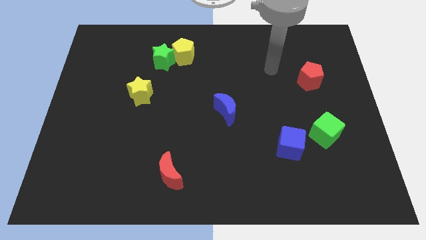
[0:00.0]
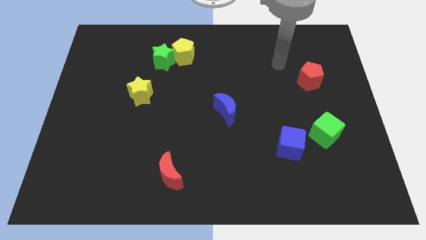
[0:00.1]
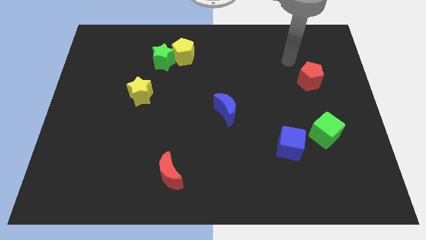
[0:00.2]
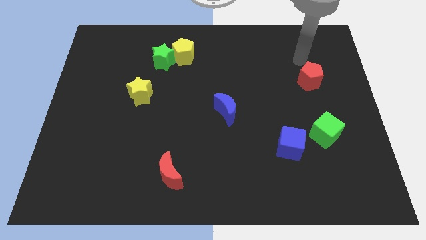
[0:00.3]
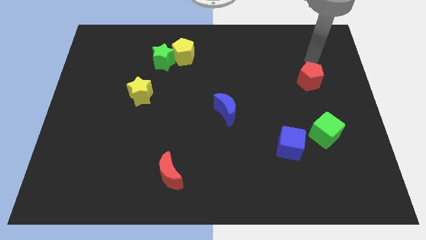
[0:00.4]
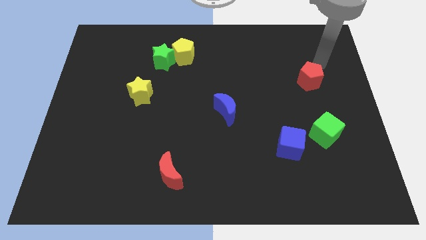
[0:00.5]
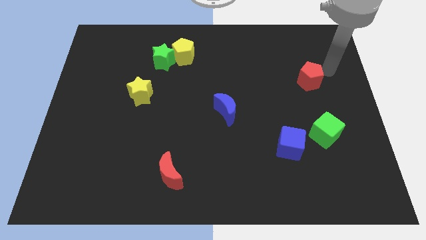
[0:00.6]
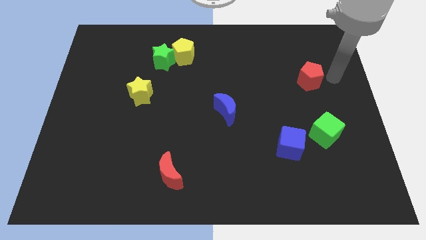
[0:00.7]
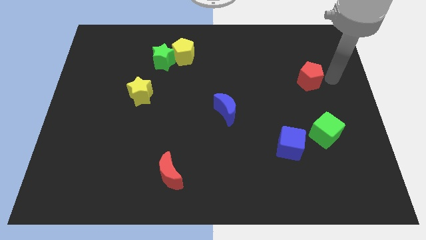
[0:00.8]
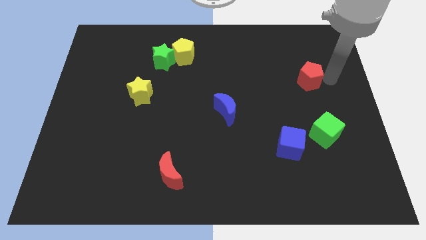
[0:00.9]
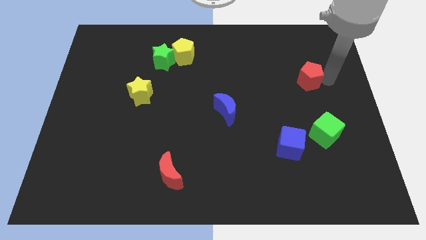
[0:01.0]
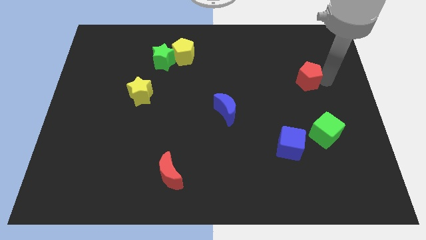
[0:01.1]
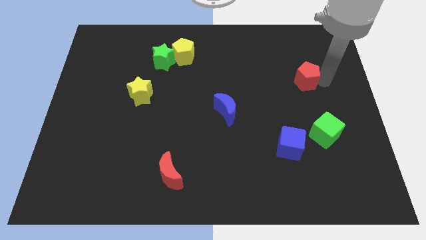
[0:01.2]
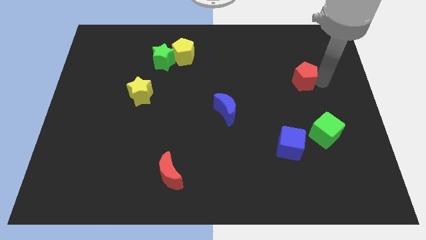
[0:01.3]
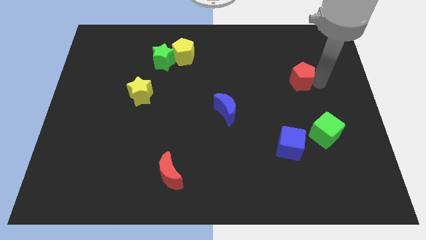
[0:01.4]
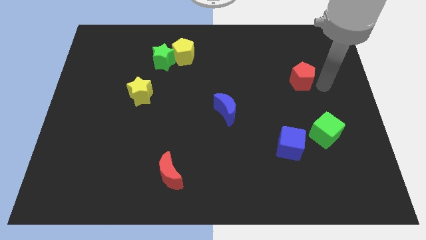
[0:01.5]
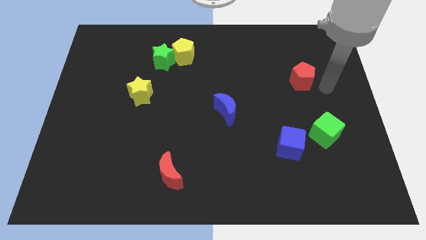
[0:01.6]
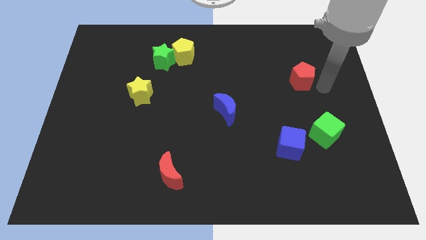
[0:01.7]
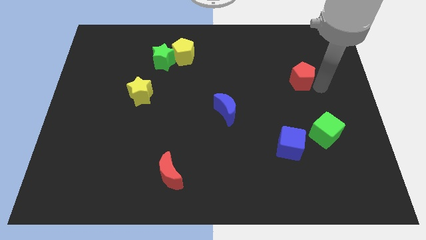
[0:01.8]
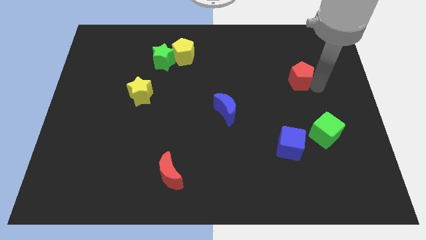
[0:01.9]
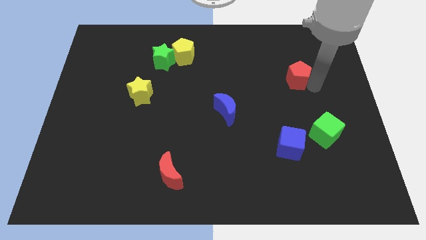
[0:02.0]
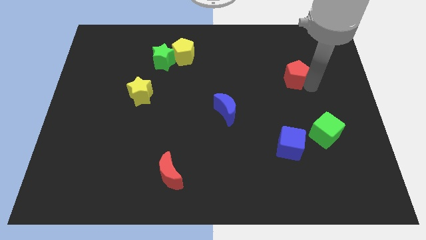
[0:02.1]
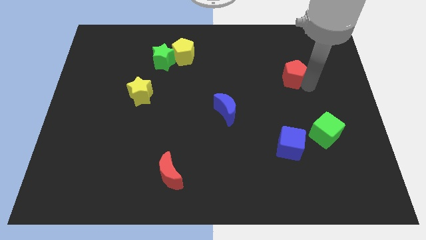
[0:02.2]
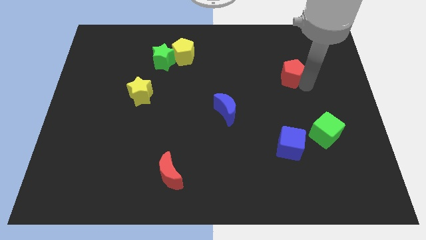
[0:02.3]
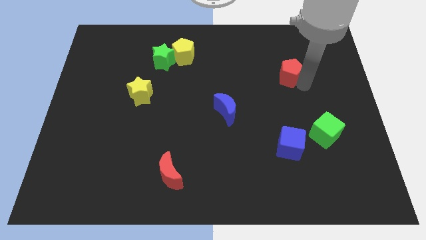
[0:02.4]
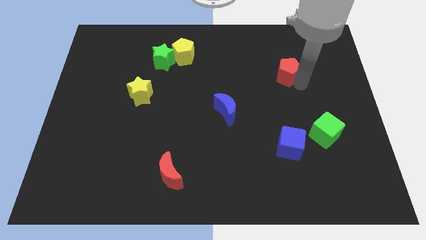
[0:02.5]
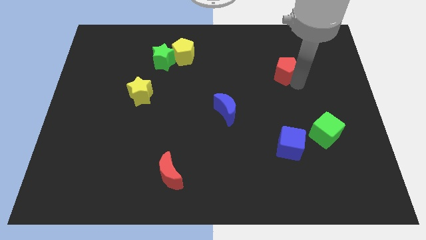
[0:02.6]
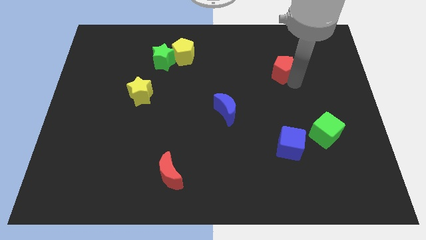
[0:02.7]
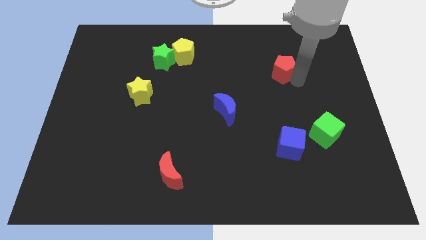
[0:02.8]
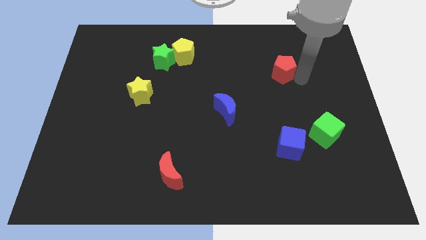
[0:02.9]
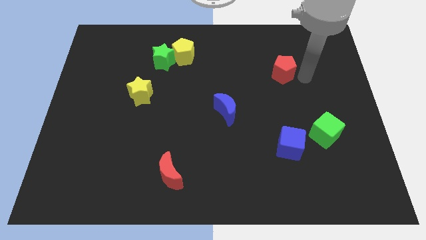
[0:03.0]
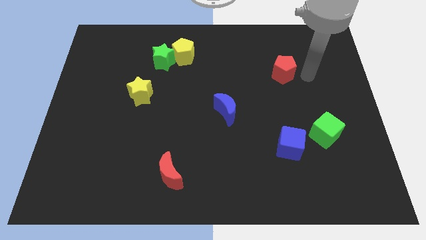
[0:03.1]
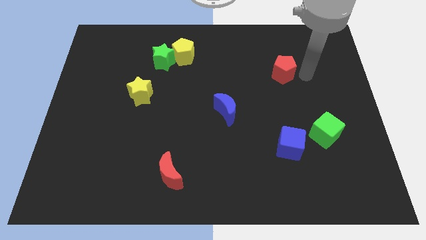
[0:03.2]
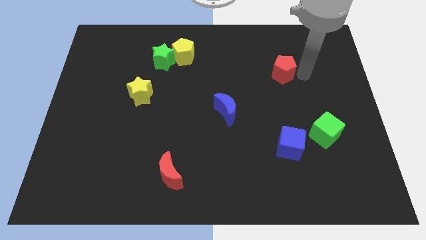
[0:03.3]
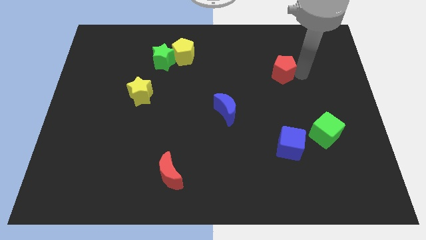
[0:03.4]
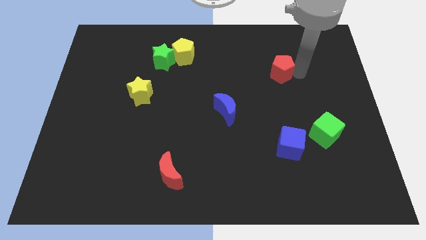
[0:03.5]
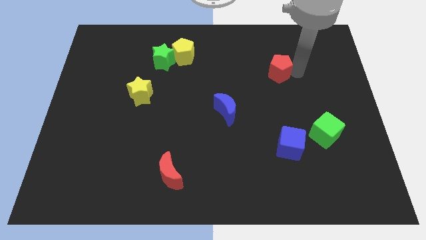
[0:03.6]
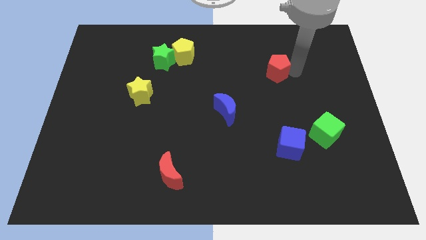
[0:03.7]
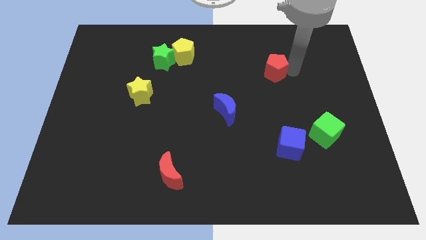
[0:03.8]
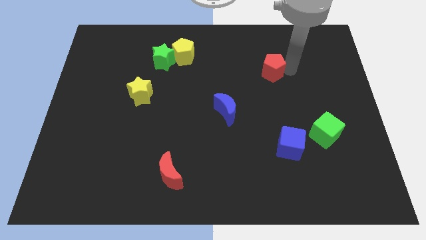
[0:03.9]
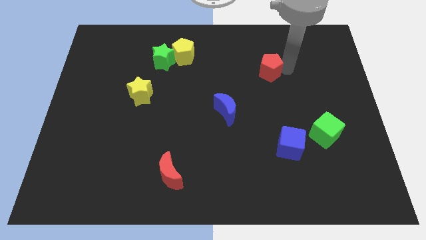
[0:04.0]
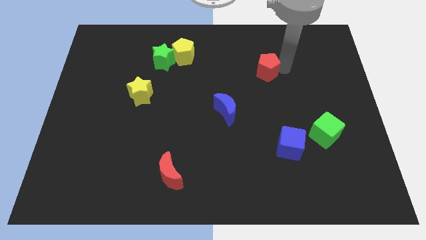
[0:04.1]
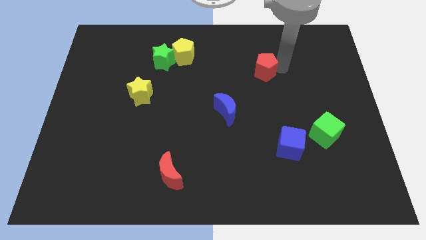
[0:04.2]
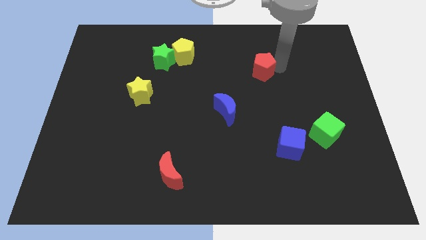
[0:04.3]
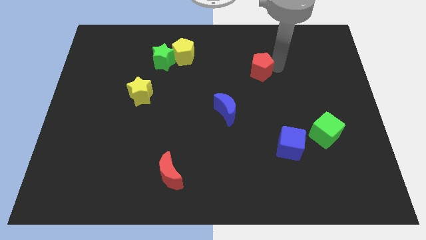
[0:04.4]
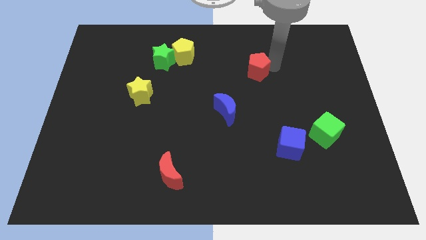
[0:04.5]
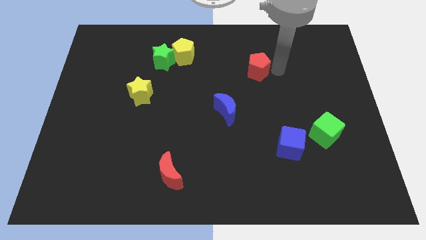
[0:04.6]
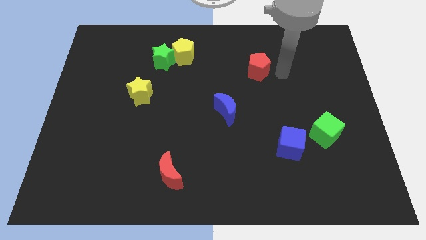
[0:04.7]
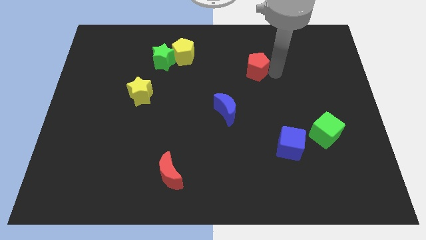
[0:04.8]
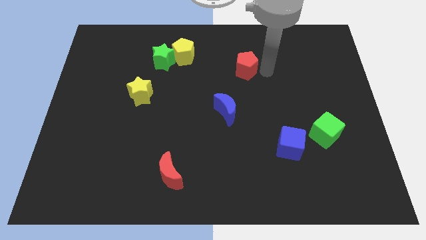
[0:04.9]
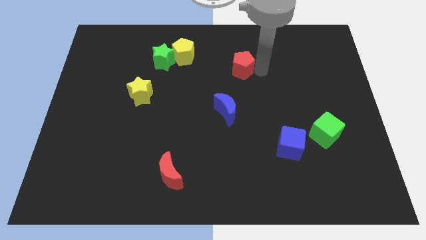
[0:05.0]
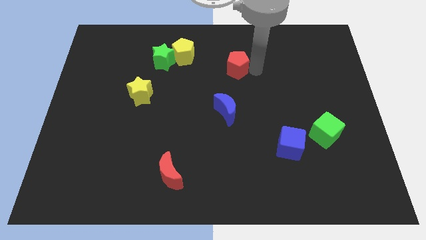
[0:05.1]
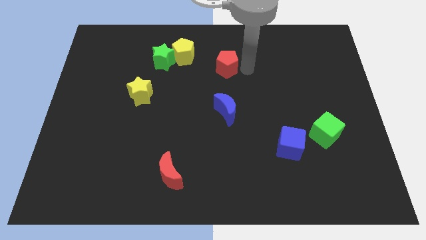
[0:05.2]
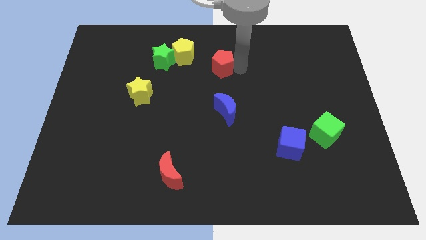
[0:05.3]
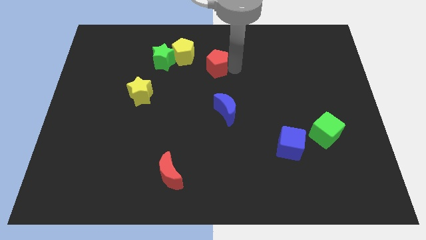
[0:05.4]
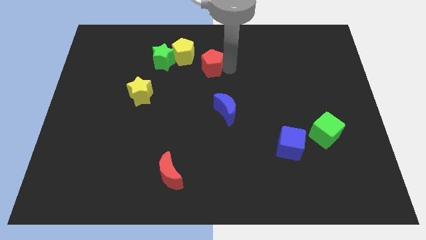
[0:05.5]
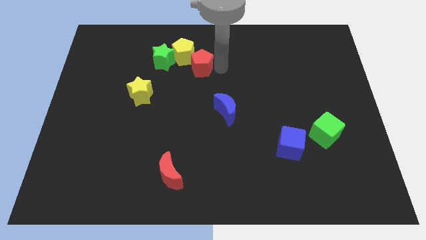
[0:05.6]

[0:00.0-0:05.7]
push the red pentagon next to the yellow pentagon

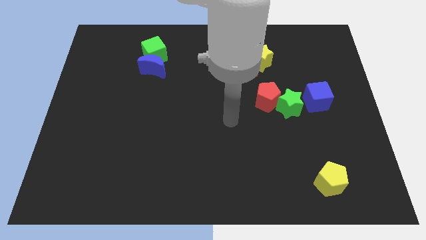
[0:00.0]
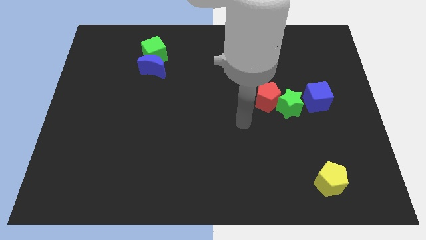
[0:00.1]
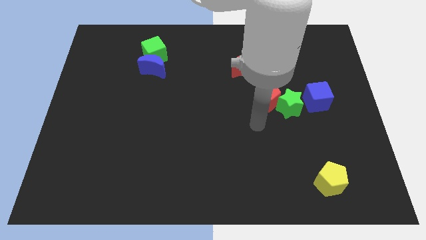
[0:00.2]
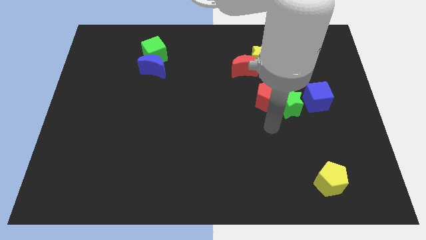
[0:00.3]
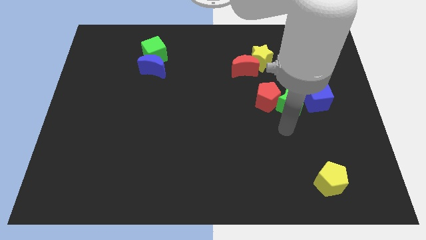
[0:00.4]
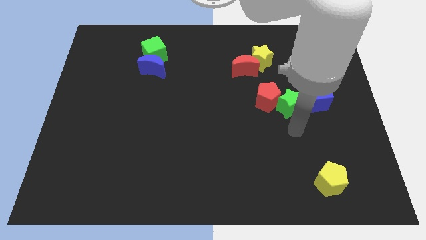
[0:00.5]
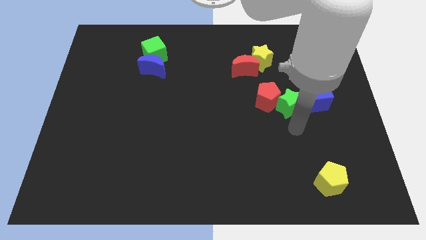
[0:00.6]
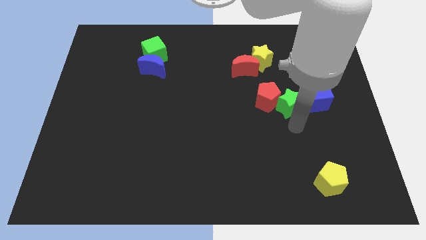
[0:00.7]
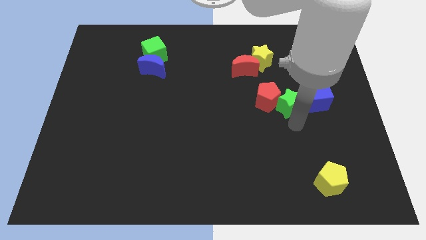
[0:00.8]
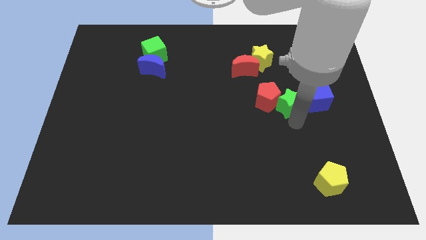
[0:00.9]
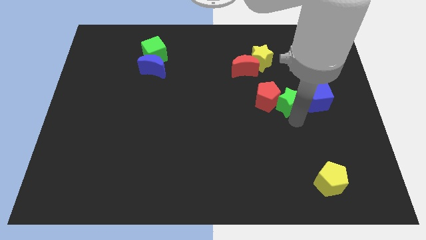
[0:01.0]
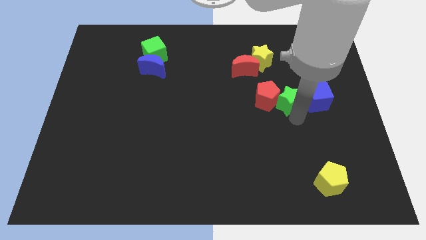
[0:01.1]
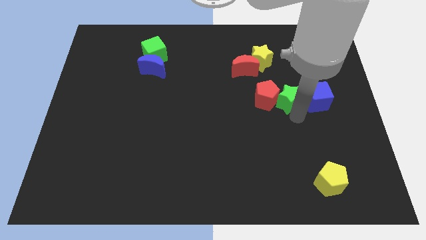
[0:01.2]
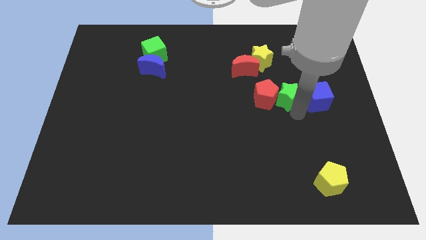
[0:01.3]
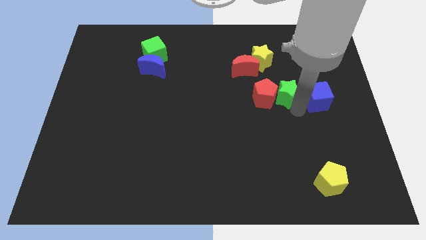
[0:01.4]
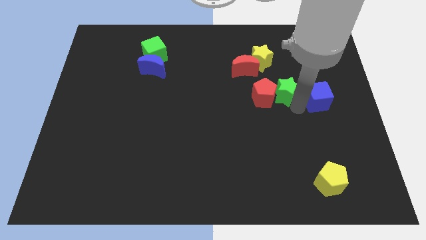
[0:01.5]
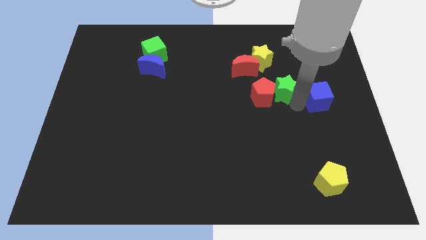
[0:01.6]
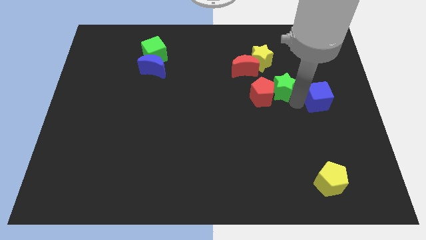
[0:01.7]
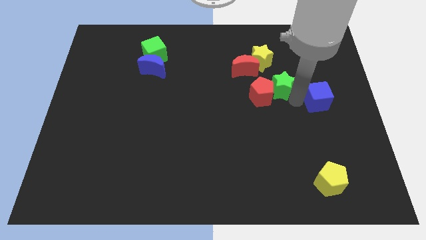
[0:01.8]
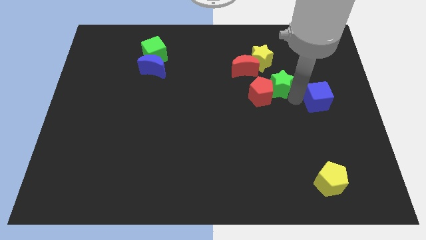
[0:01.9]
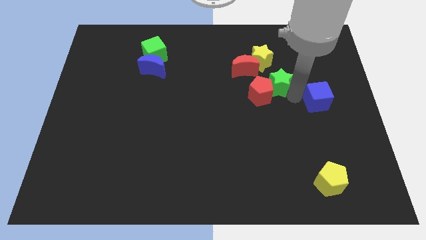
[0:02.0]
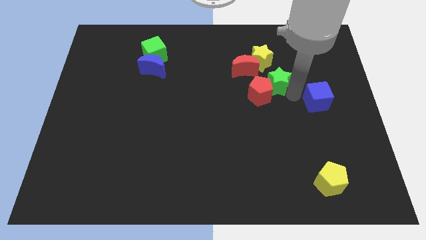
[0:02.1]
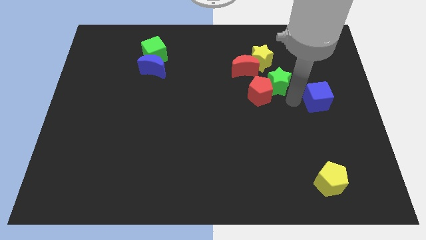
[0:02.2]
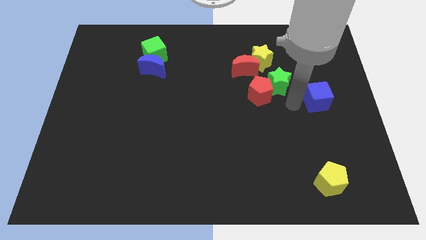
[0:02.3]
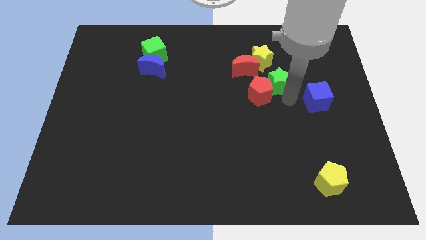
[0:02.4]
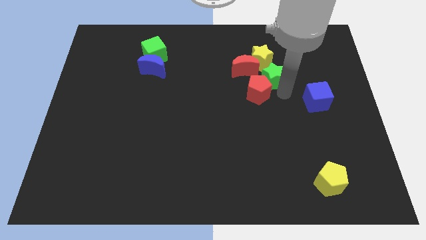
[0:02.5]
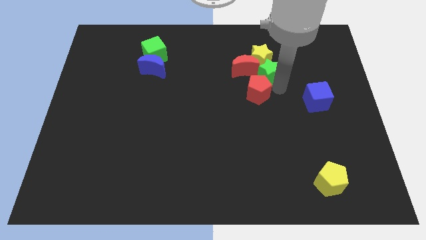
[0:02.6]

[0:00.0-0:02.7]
push the green star next to the yellow star
